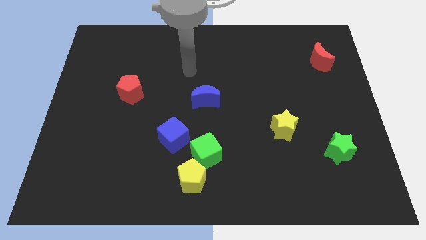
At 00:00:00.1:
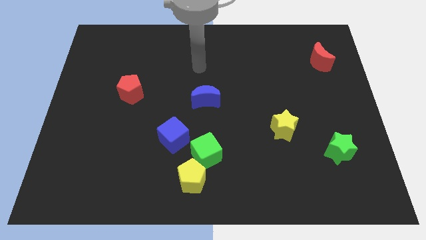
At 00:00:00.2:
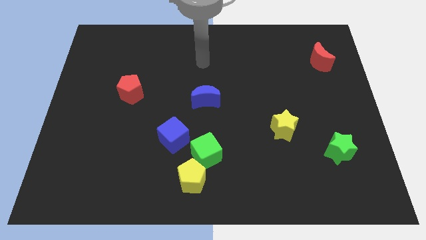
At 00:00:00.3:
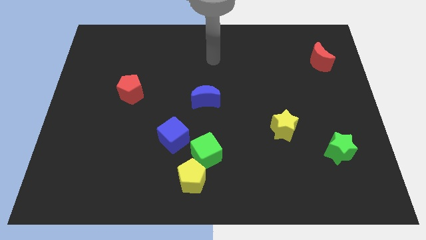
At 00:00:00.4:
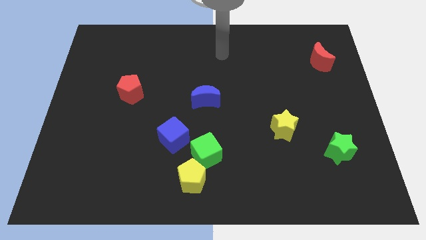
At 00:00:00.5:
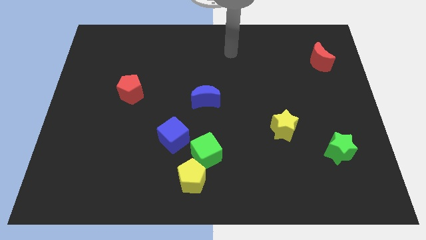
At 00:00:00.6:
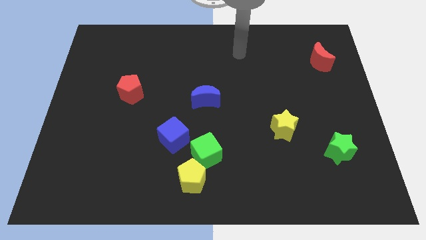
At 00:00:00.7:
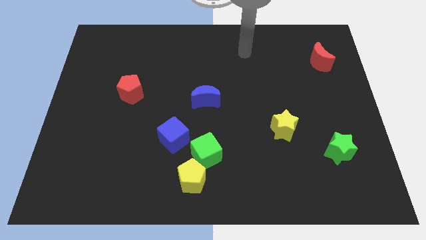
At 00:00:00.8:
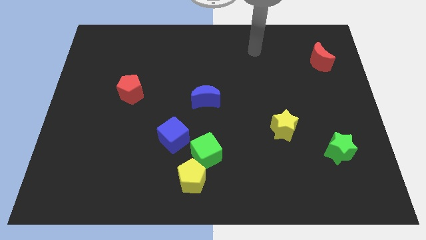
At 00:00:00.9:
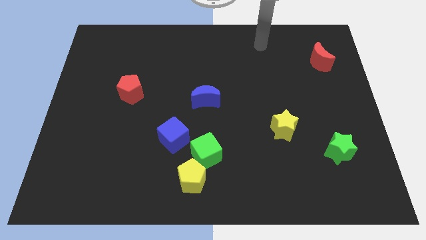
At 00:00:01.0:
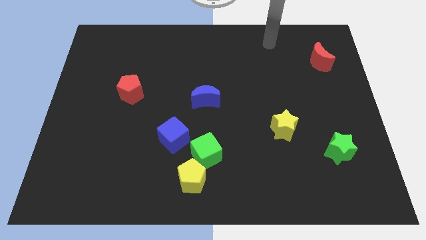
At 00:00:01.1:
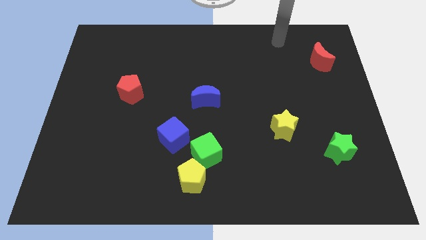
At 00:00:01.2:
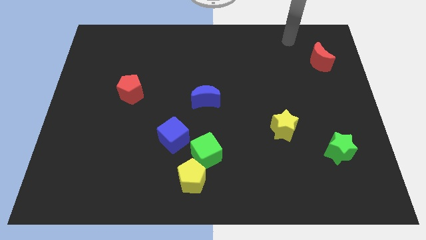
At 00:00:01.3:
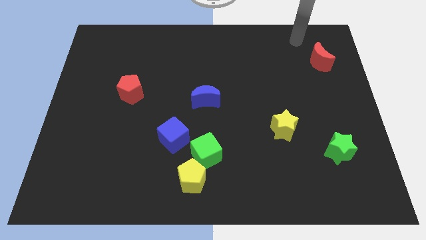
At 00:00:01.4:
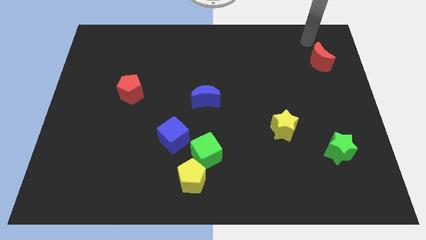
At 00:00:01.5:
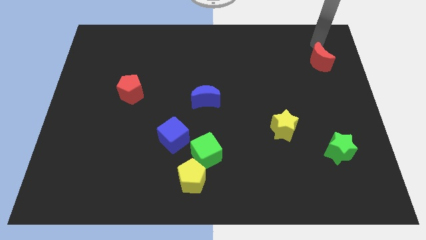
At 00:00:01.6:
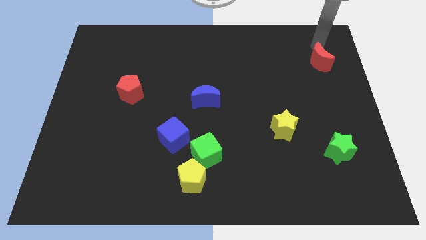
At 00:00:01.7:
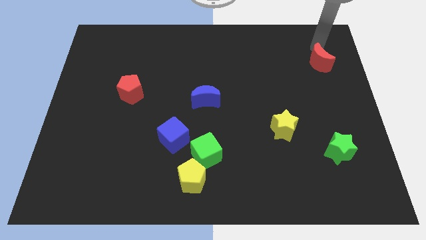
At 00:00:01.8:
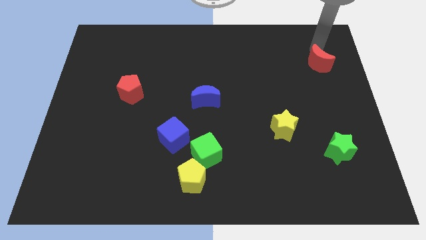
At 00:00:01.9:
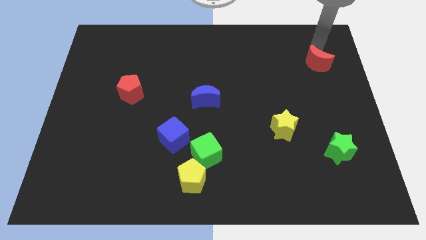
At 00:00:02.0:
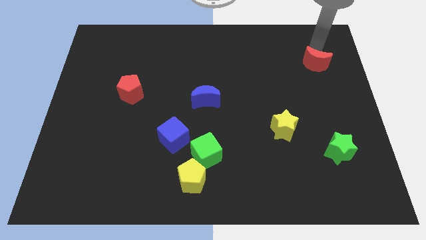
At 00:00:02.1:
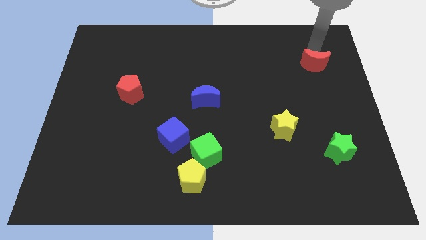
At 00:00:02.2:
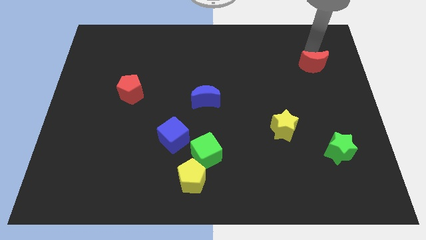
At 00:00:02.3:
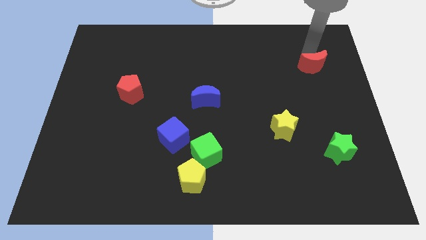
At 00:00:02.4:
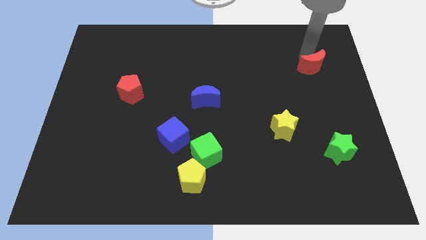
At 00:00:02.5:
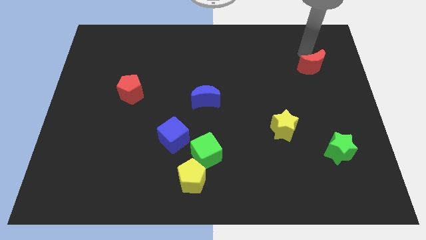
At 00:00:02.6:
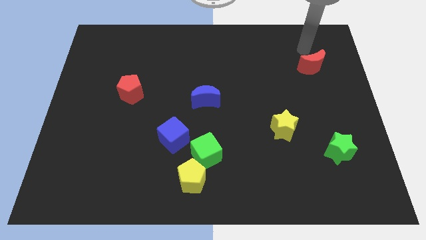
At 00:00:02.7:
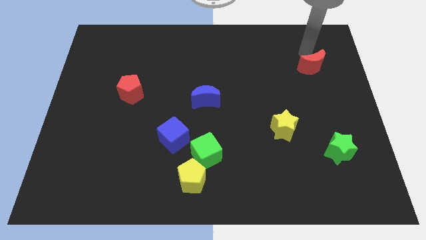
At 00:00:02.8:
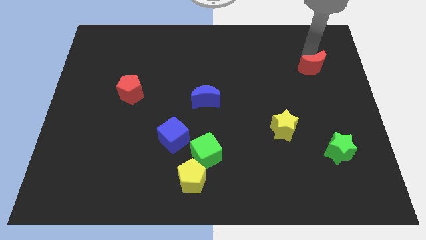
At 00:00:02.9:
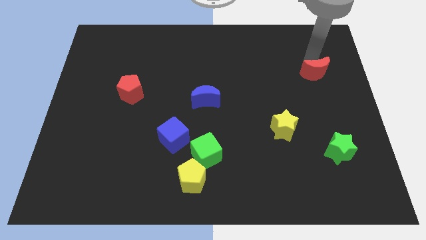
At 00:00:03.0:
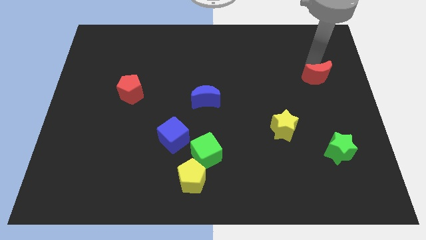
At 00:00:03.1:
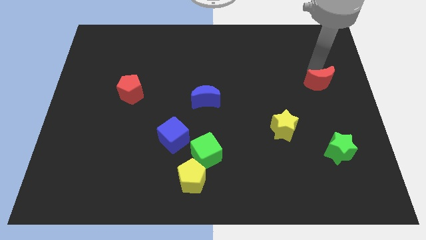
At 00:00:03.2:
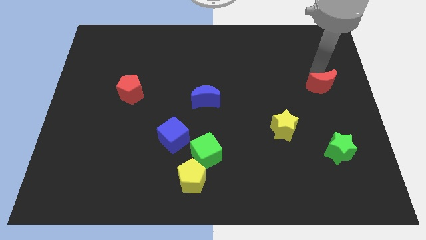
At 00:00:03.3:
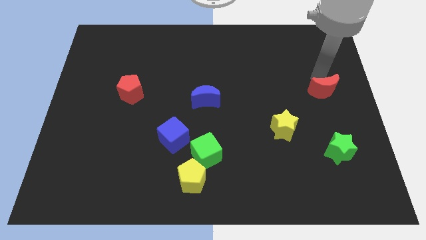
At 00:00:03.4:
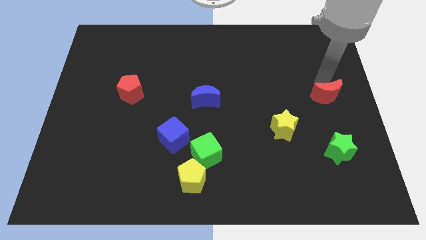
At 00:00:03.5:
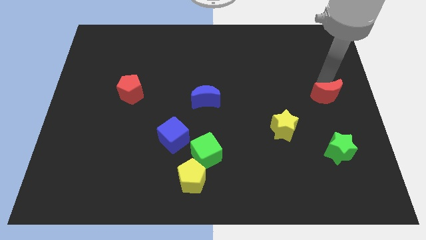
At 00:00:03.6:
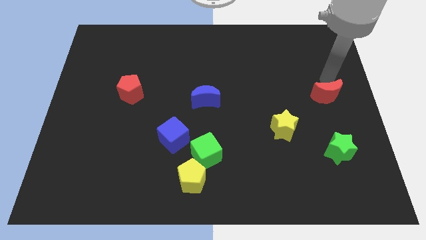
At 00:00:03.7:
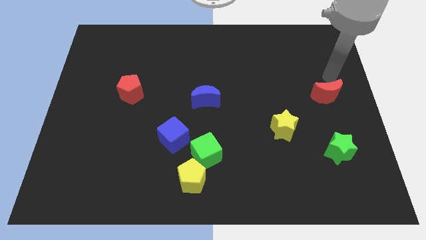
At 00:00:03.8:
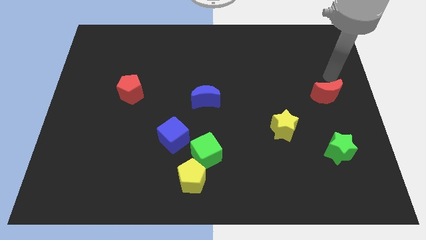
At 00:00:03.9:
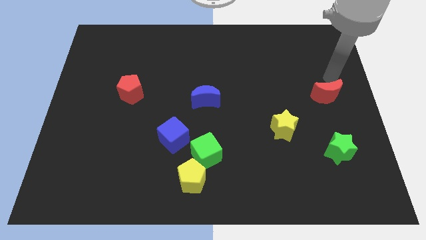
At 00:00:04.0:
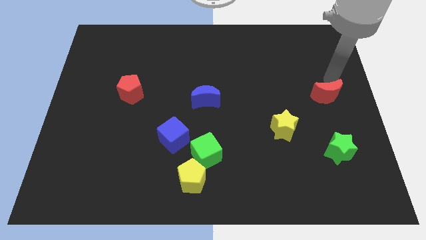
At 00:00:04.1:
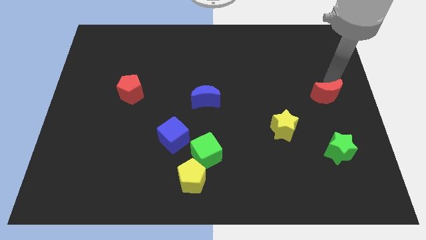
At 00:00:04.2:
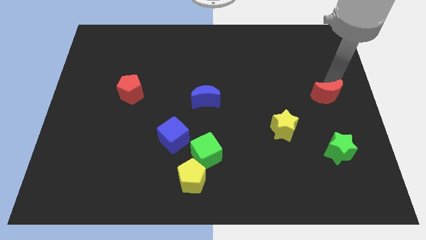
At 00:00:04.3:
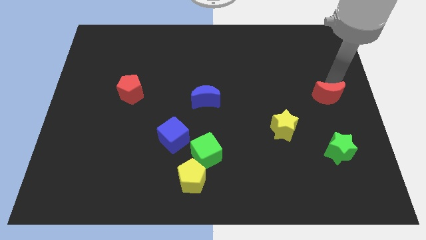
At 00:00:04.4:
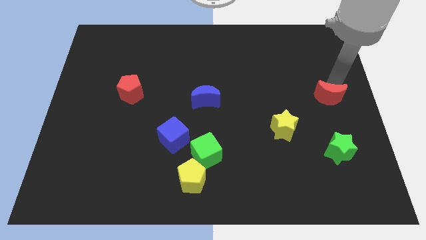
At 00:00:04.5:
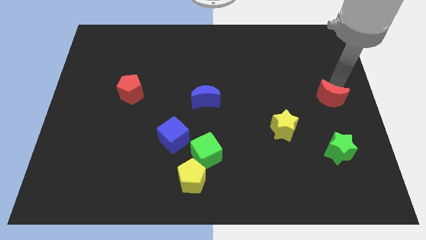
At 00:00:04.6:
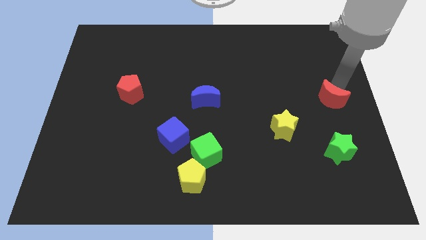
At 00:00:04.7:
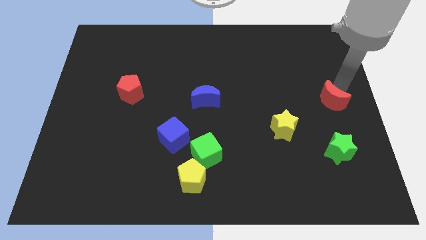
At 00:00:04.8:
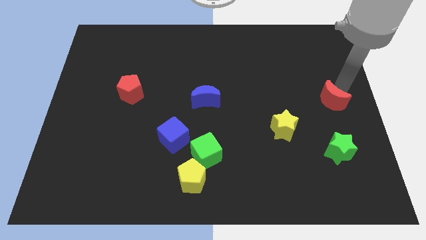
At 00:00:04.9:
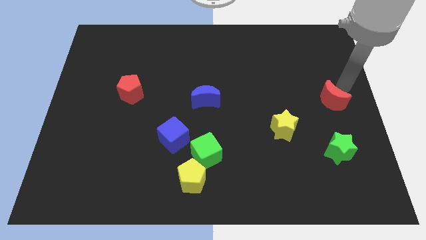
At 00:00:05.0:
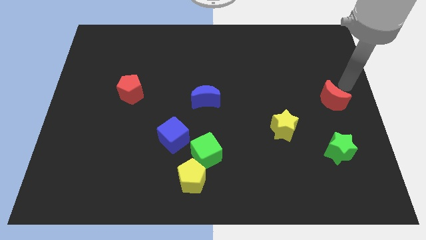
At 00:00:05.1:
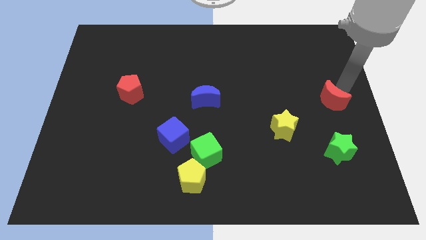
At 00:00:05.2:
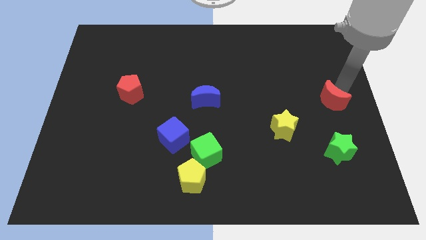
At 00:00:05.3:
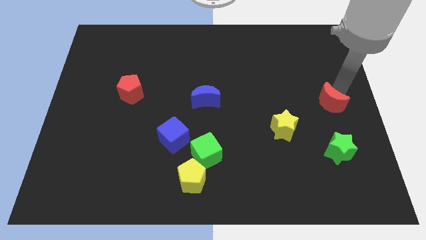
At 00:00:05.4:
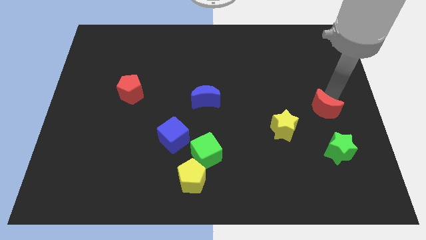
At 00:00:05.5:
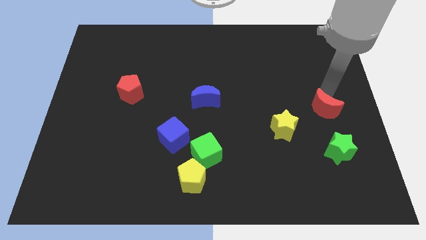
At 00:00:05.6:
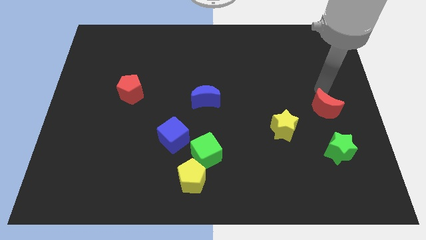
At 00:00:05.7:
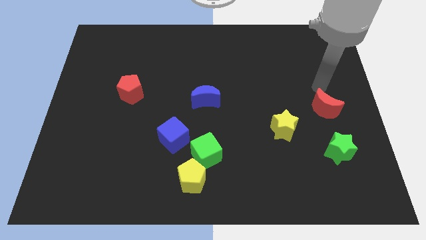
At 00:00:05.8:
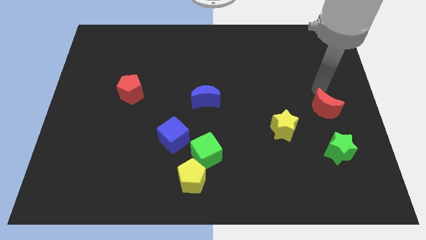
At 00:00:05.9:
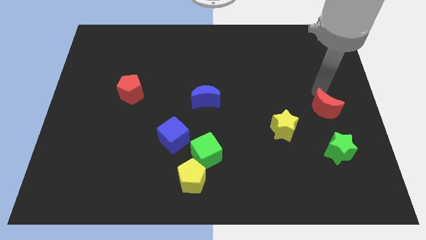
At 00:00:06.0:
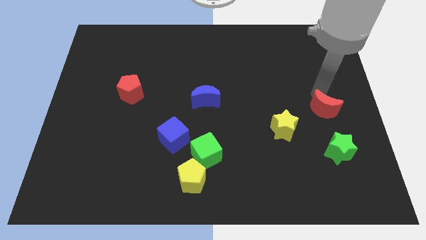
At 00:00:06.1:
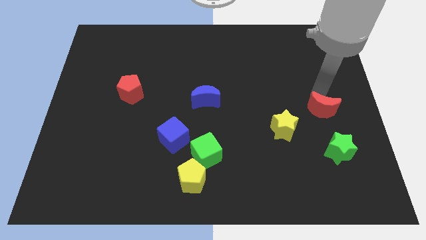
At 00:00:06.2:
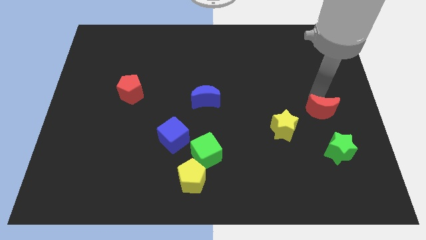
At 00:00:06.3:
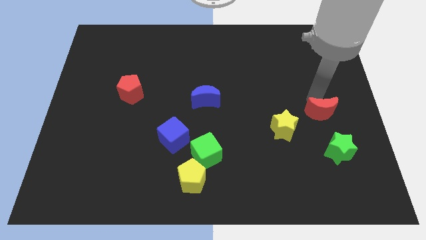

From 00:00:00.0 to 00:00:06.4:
move the red moon right of the yellow star

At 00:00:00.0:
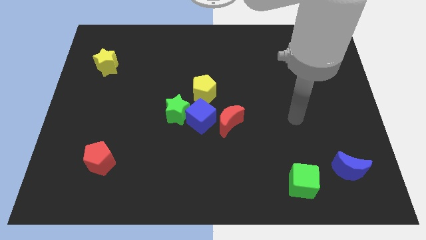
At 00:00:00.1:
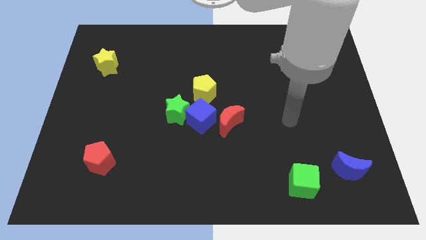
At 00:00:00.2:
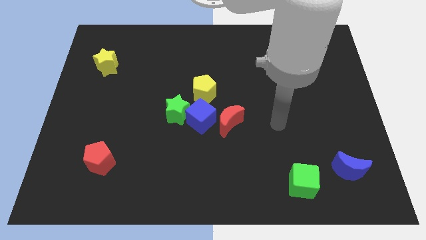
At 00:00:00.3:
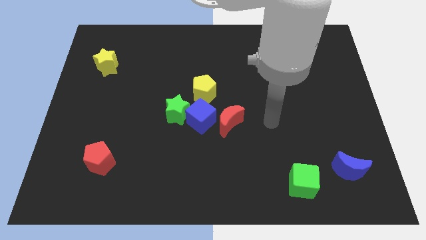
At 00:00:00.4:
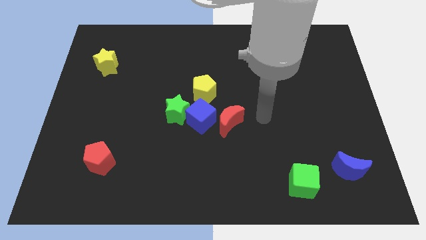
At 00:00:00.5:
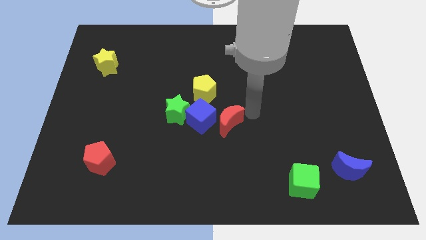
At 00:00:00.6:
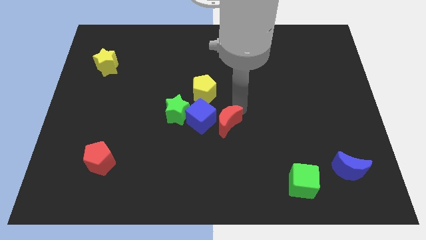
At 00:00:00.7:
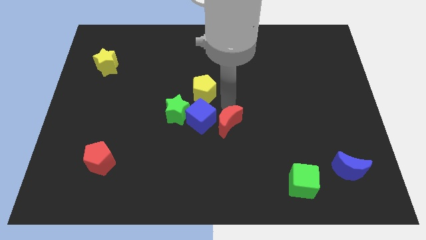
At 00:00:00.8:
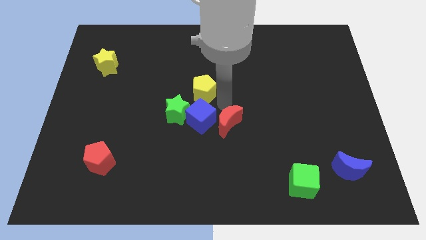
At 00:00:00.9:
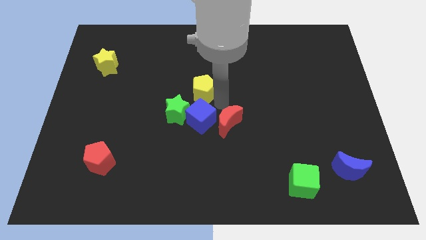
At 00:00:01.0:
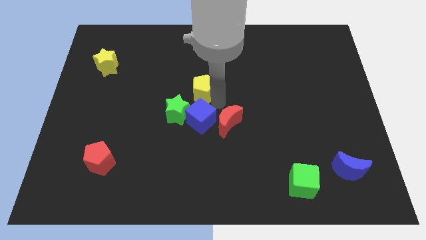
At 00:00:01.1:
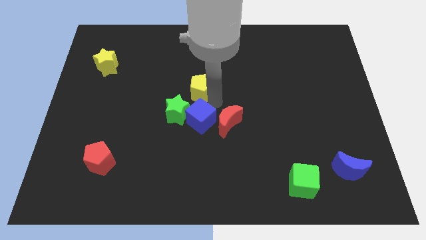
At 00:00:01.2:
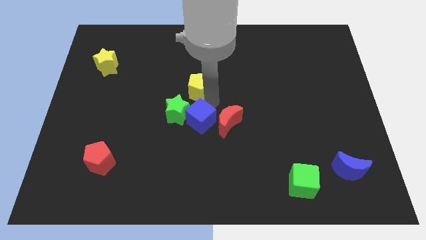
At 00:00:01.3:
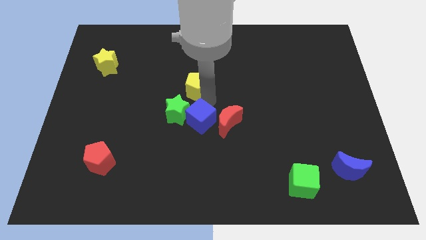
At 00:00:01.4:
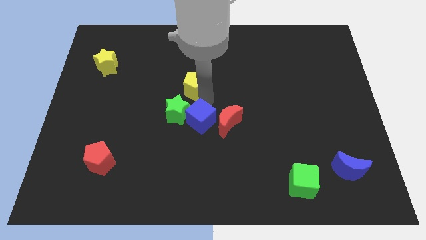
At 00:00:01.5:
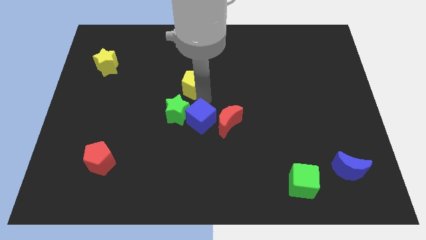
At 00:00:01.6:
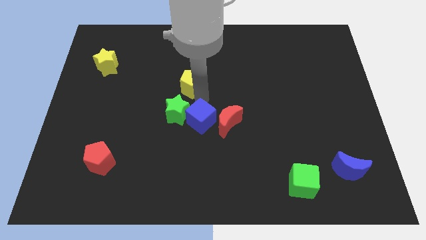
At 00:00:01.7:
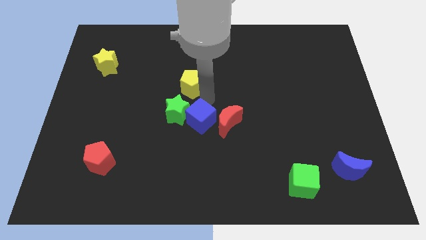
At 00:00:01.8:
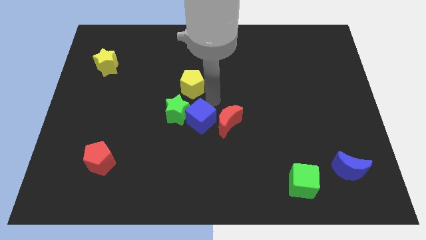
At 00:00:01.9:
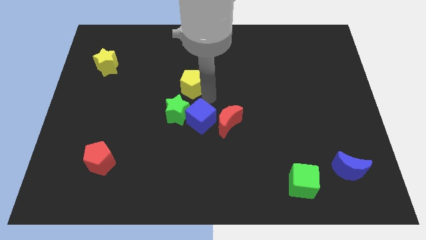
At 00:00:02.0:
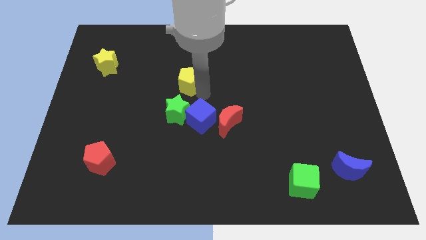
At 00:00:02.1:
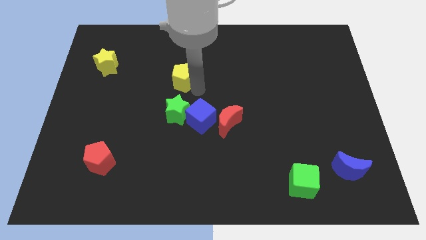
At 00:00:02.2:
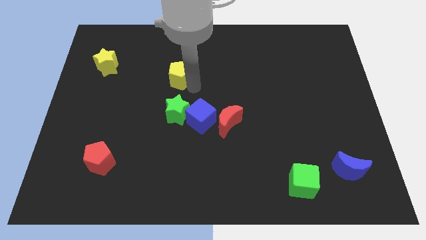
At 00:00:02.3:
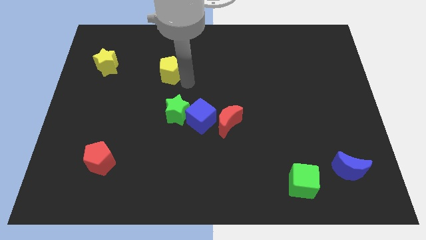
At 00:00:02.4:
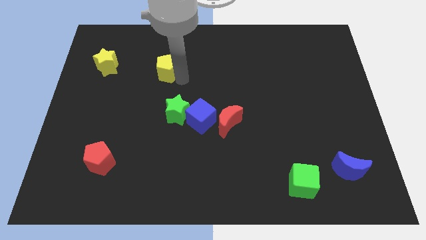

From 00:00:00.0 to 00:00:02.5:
put the yellow pentagon right of the yellow star
